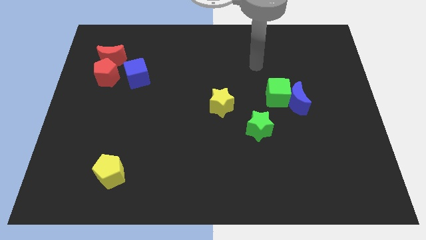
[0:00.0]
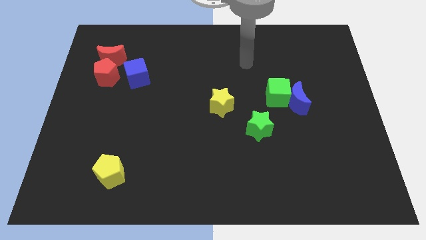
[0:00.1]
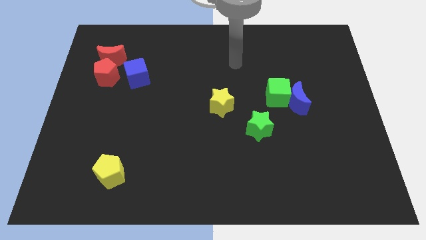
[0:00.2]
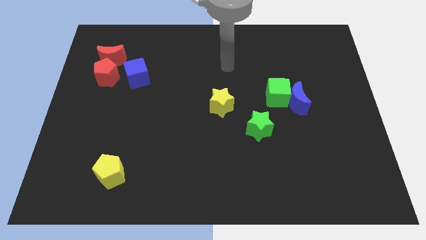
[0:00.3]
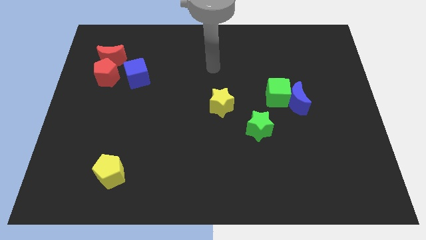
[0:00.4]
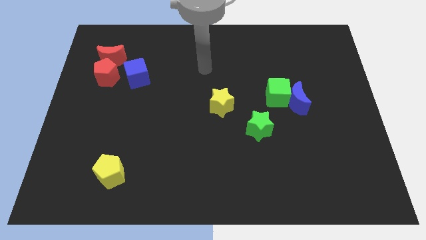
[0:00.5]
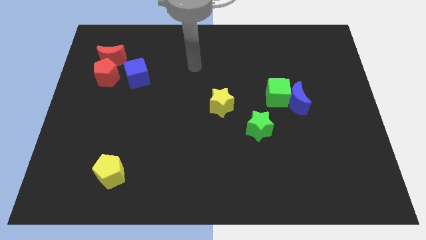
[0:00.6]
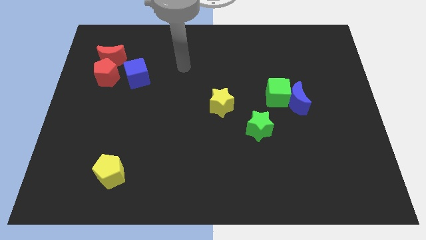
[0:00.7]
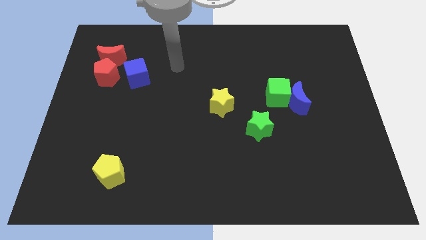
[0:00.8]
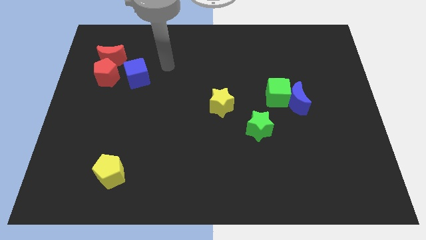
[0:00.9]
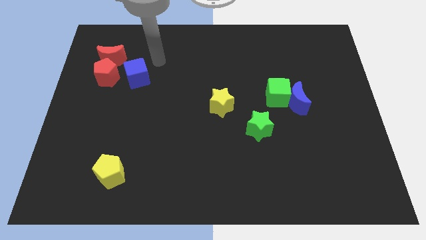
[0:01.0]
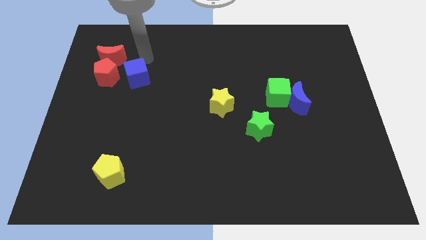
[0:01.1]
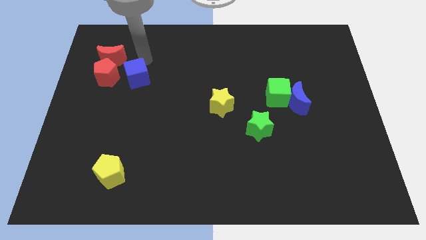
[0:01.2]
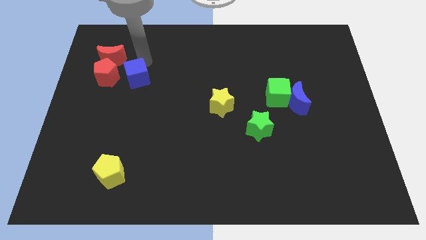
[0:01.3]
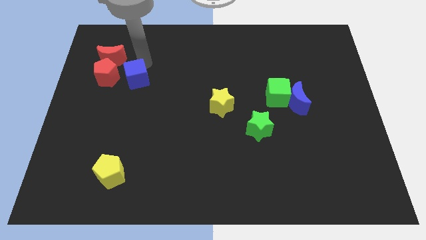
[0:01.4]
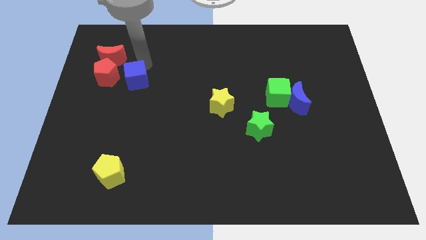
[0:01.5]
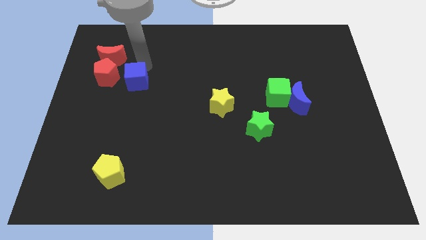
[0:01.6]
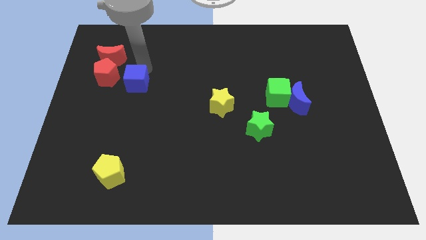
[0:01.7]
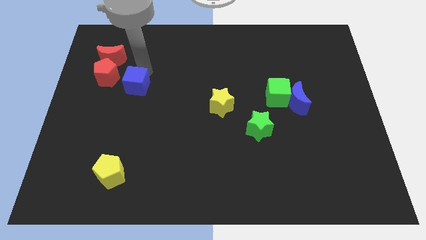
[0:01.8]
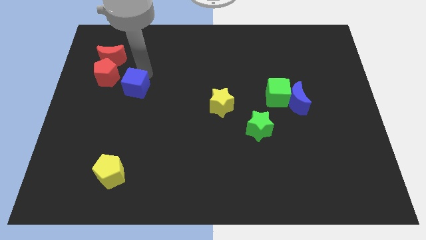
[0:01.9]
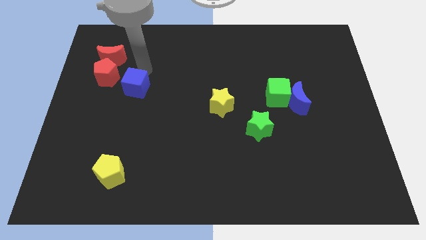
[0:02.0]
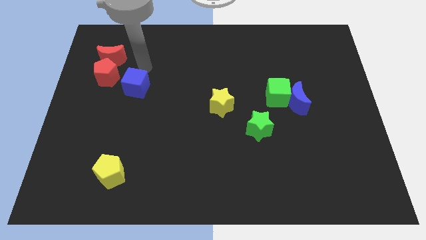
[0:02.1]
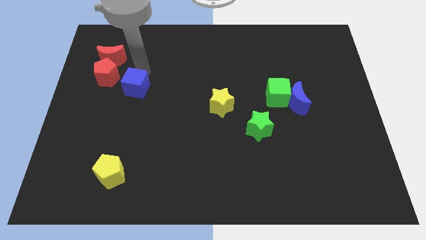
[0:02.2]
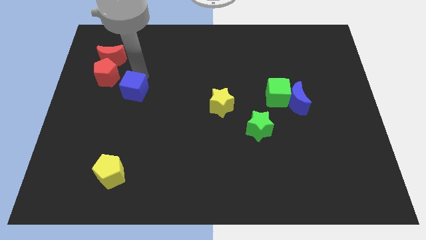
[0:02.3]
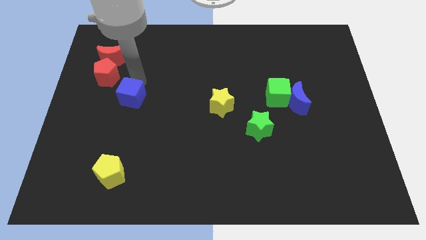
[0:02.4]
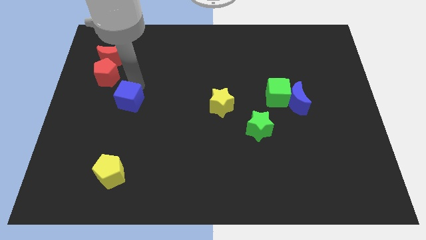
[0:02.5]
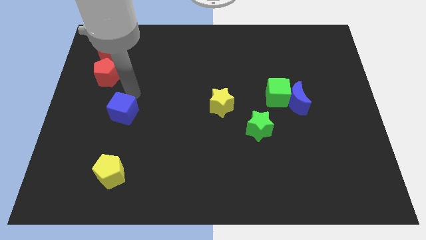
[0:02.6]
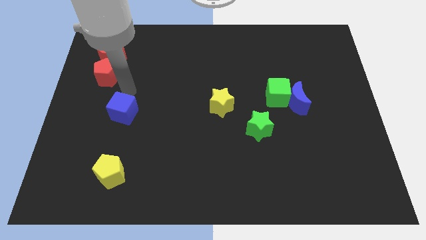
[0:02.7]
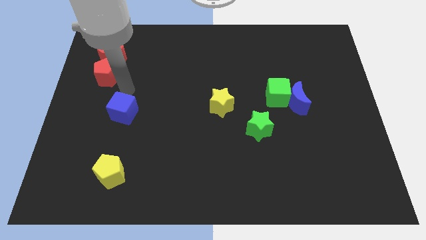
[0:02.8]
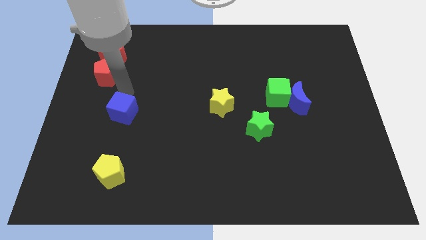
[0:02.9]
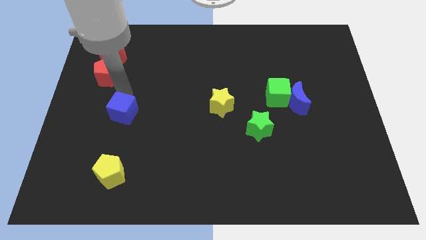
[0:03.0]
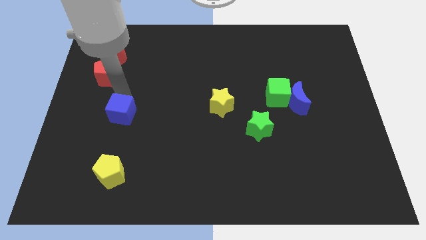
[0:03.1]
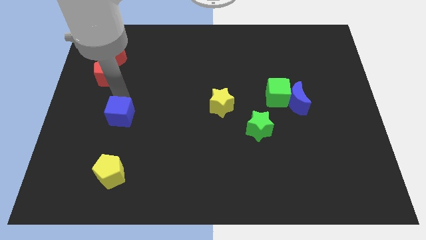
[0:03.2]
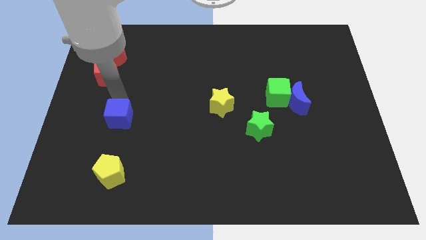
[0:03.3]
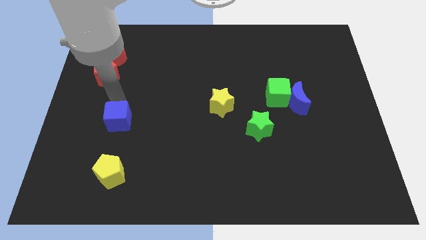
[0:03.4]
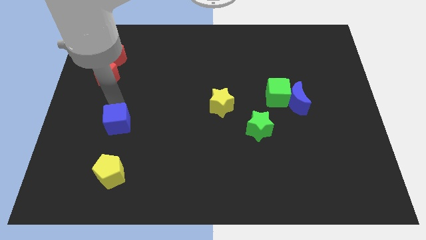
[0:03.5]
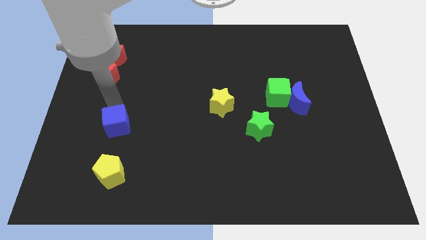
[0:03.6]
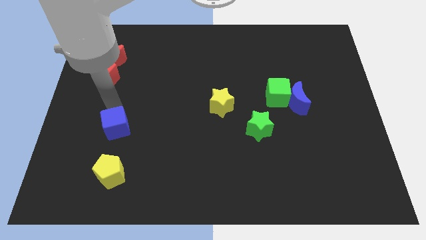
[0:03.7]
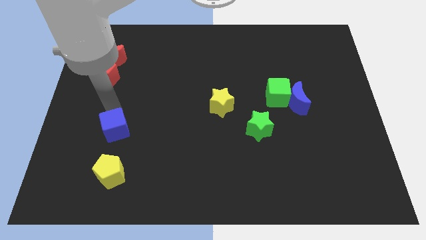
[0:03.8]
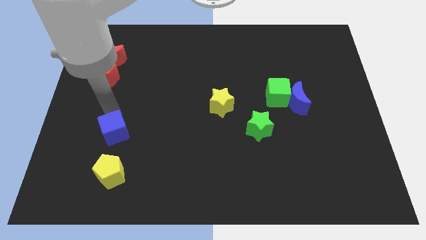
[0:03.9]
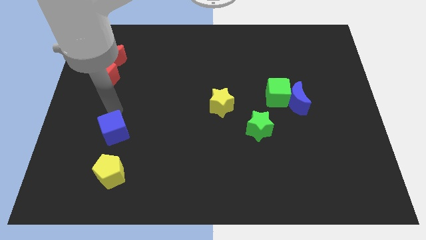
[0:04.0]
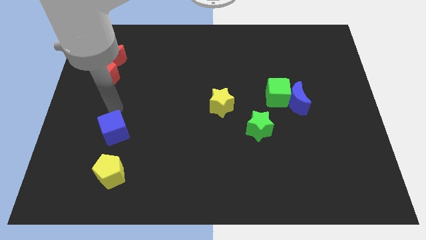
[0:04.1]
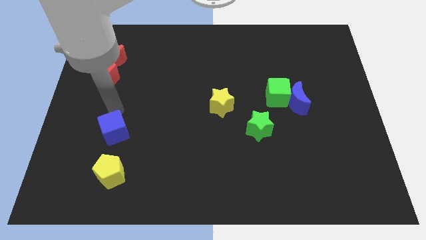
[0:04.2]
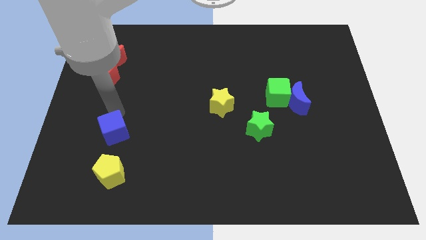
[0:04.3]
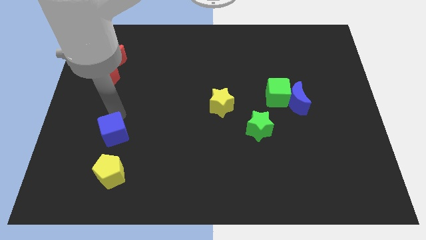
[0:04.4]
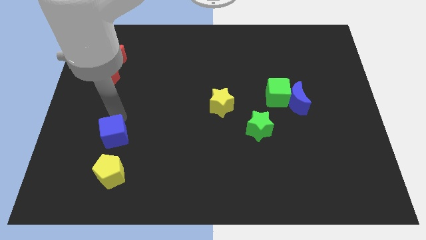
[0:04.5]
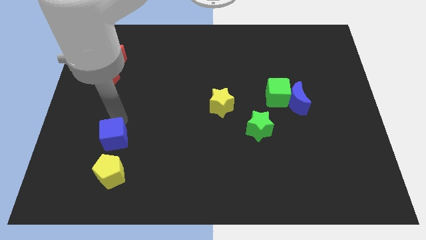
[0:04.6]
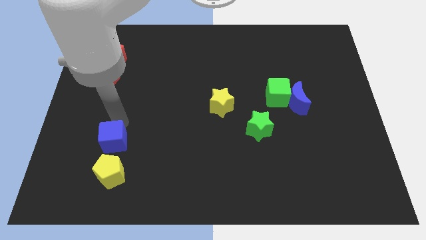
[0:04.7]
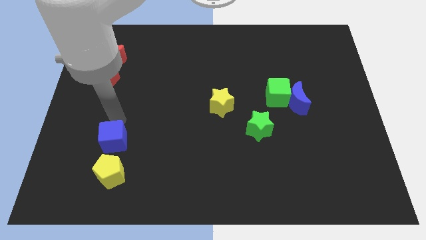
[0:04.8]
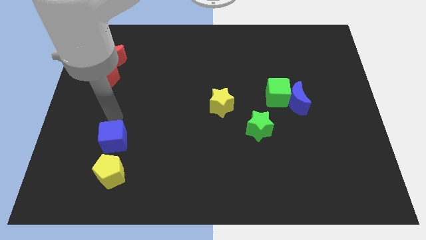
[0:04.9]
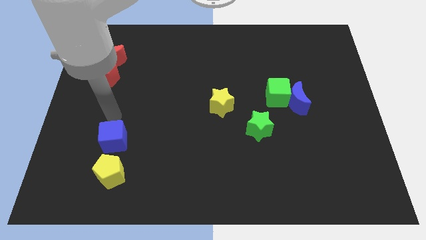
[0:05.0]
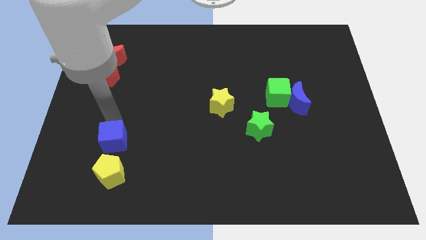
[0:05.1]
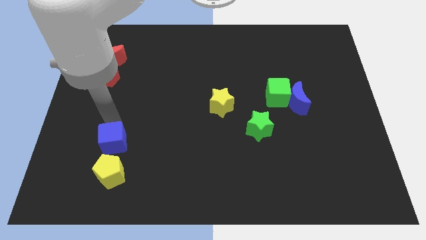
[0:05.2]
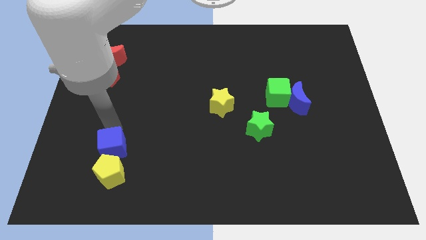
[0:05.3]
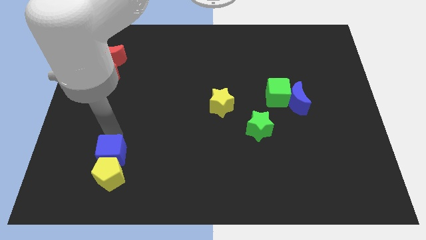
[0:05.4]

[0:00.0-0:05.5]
slide the blue cube next to the yellow pentagon

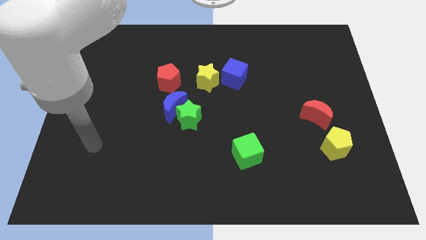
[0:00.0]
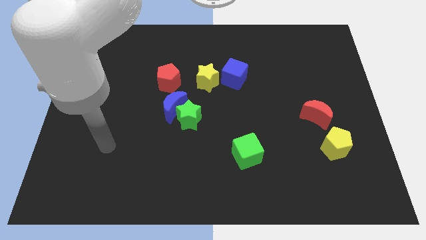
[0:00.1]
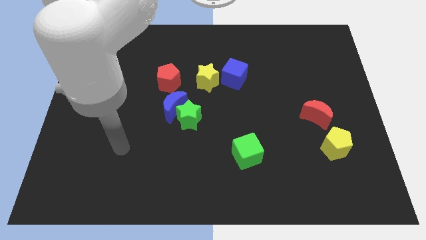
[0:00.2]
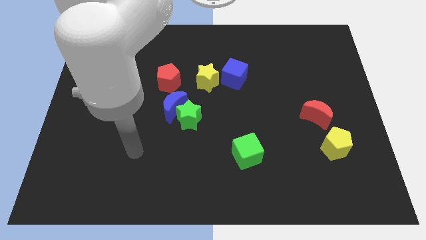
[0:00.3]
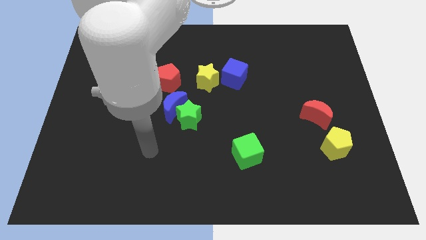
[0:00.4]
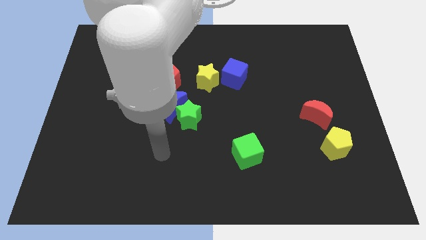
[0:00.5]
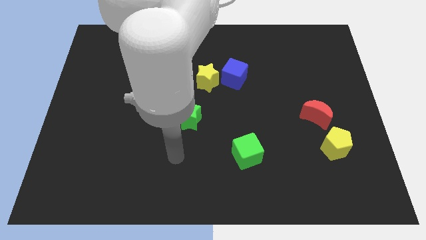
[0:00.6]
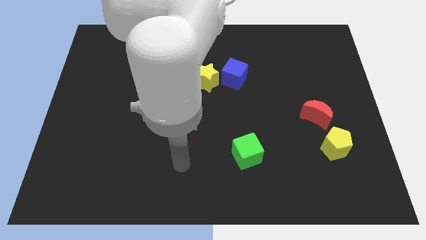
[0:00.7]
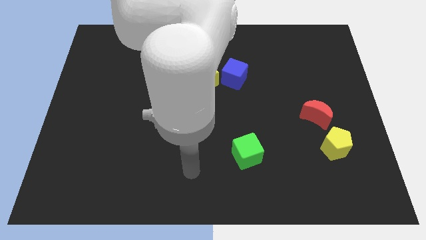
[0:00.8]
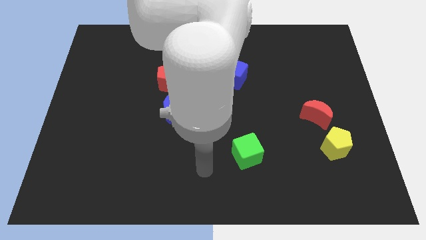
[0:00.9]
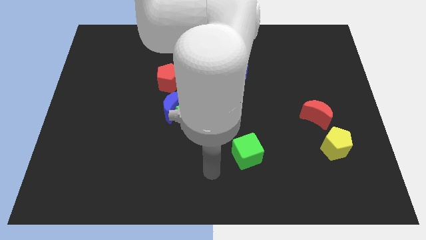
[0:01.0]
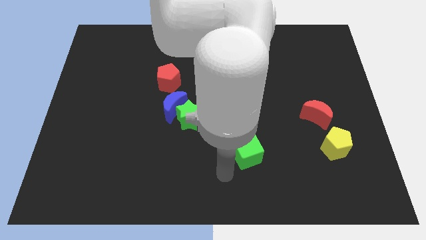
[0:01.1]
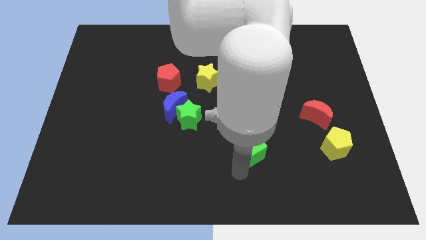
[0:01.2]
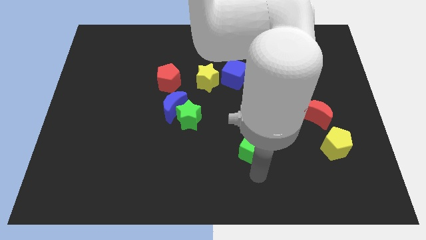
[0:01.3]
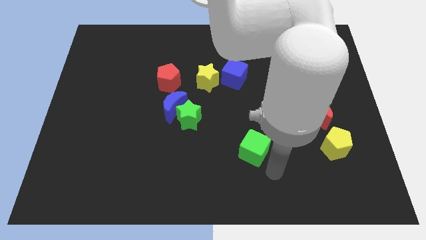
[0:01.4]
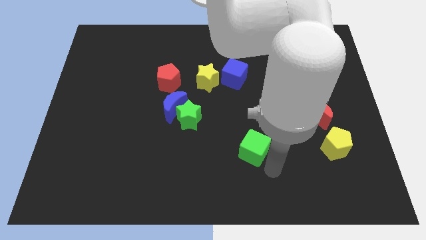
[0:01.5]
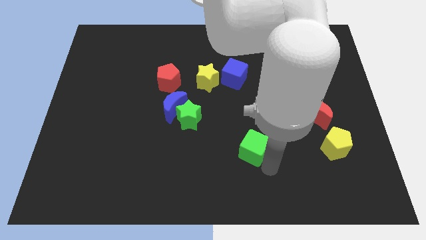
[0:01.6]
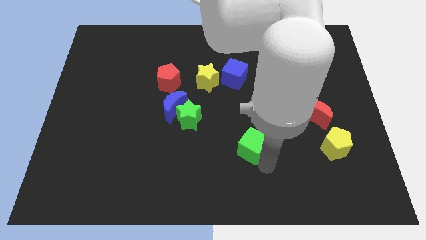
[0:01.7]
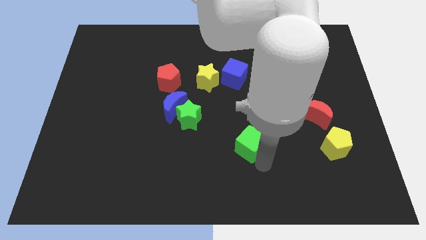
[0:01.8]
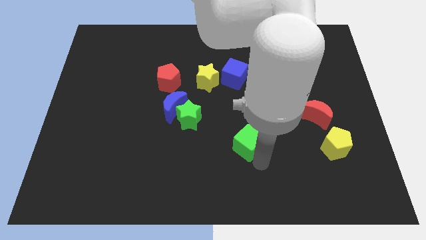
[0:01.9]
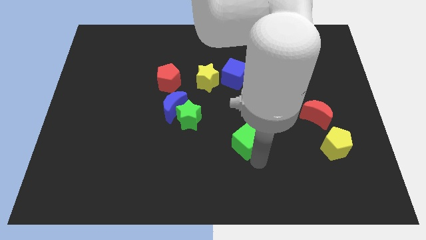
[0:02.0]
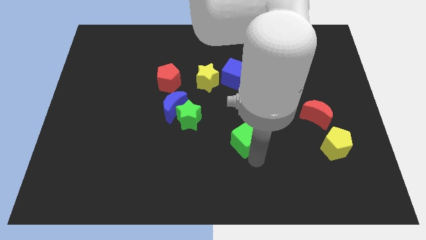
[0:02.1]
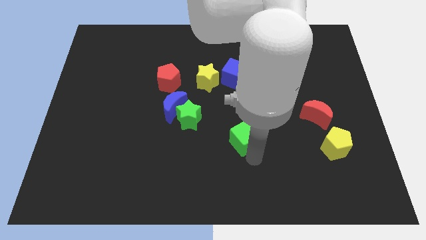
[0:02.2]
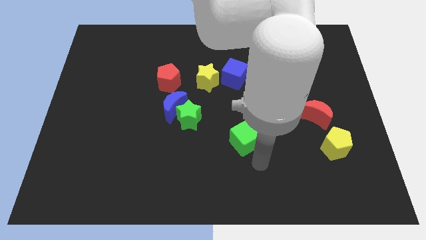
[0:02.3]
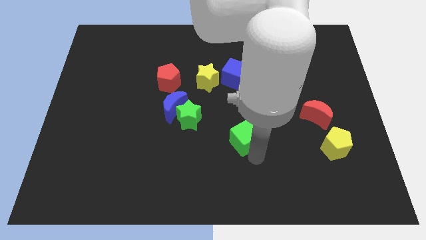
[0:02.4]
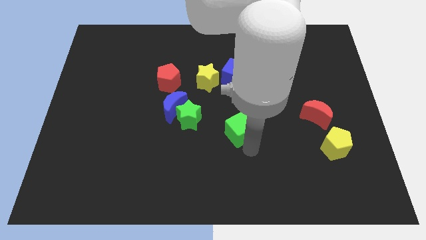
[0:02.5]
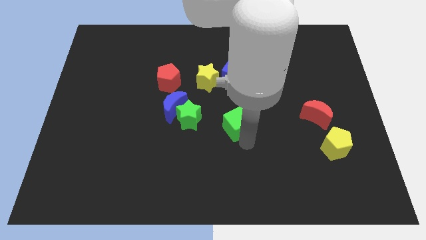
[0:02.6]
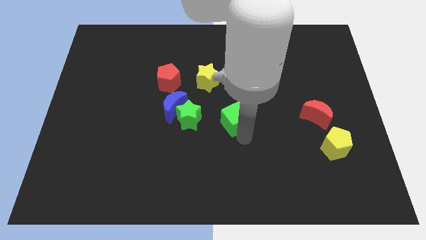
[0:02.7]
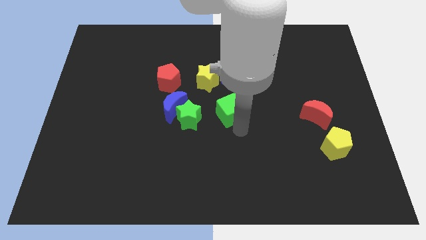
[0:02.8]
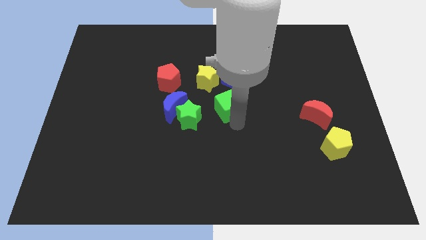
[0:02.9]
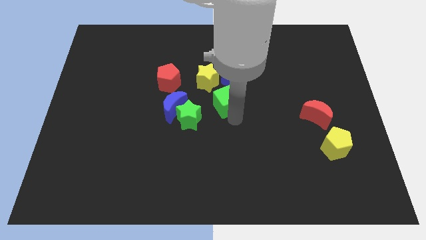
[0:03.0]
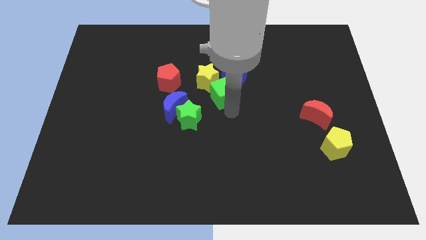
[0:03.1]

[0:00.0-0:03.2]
slide the green cube close to the yellow star
